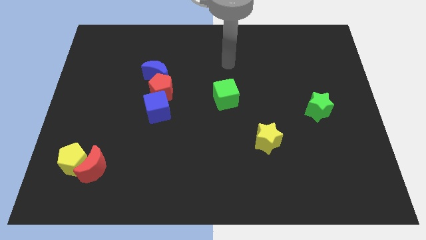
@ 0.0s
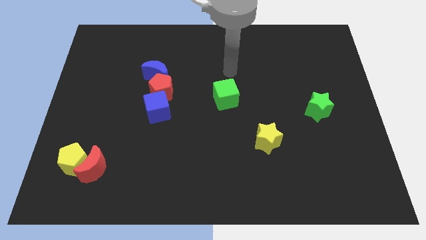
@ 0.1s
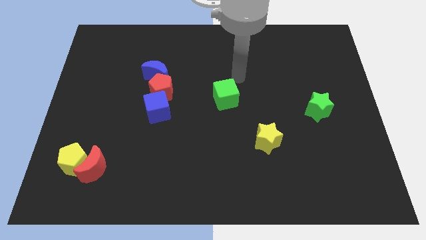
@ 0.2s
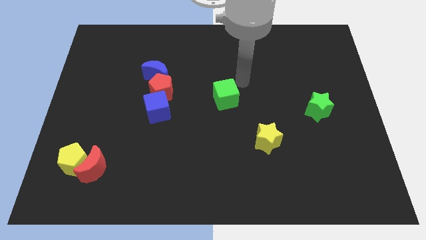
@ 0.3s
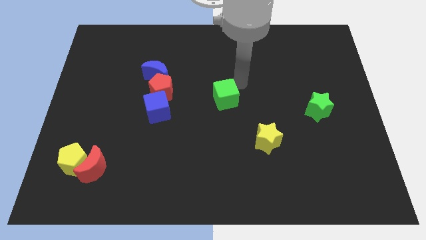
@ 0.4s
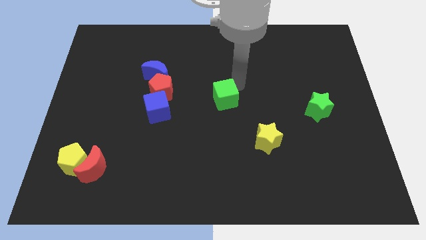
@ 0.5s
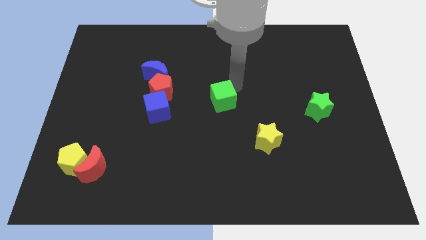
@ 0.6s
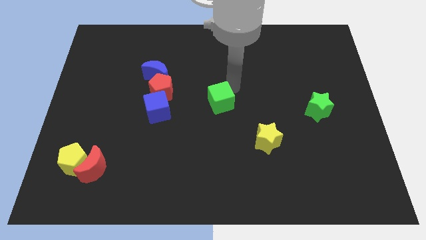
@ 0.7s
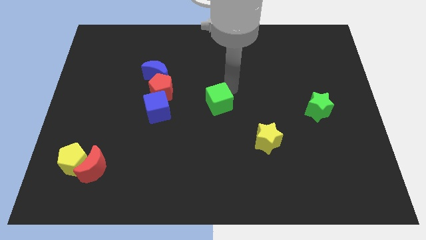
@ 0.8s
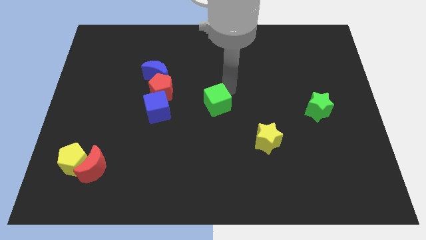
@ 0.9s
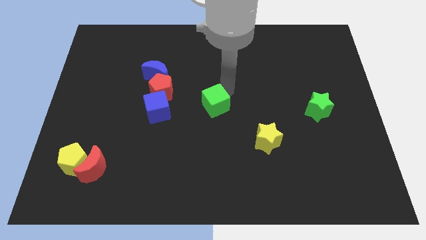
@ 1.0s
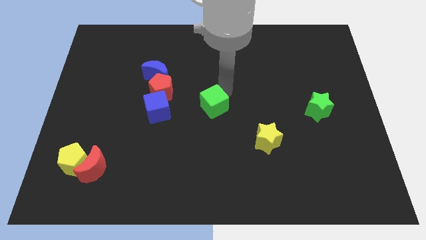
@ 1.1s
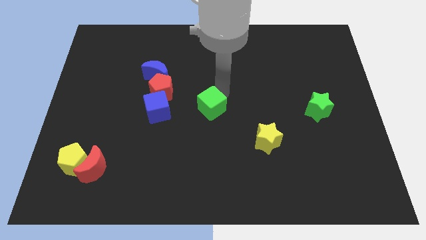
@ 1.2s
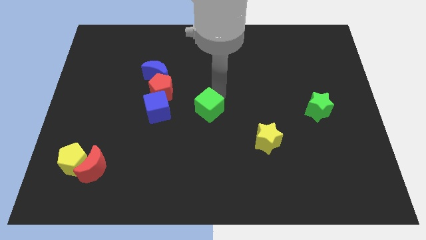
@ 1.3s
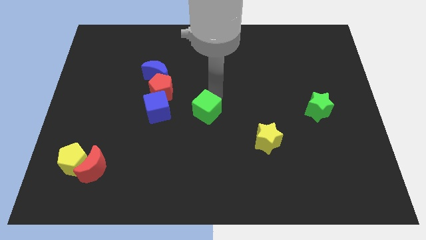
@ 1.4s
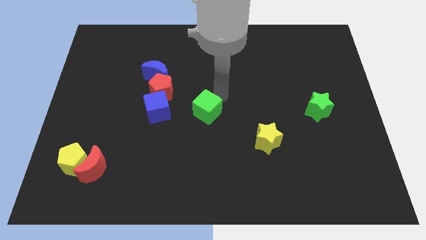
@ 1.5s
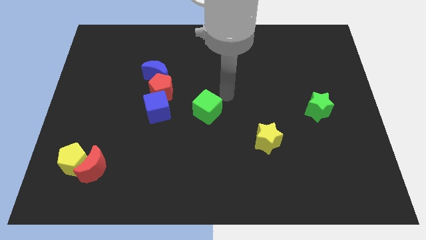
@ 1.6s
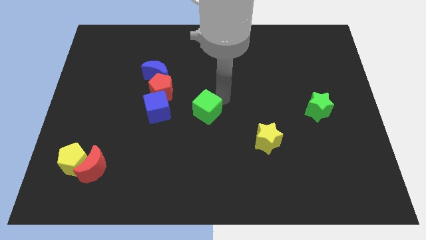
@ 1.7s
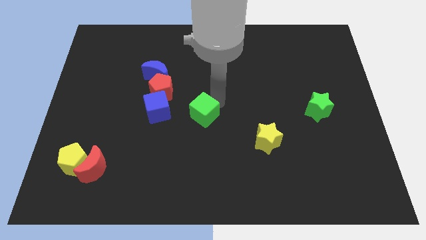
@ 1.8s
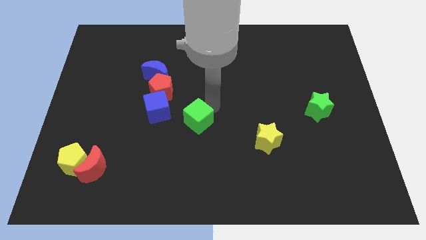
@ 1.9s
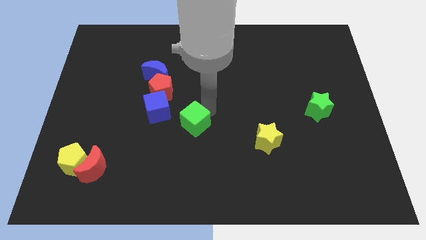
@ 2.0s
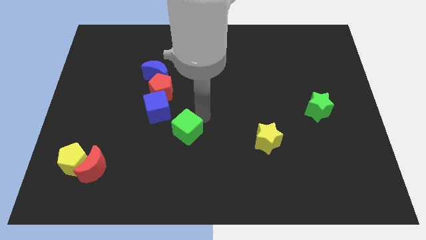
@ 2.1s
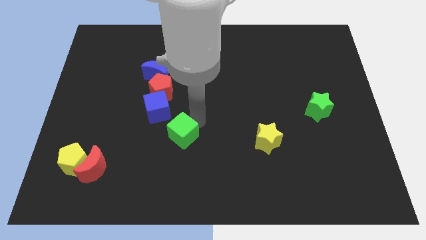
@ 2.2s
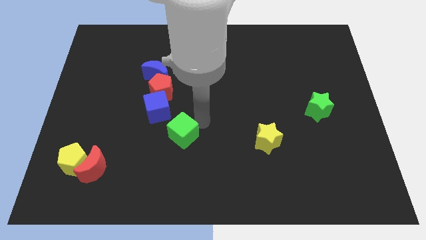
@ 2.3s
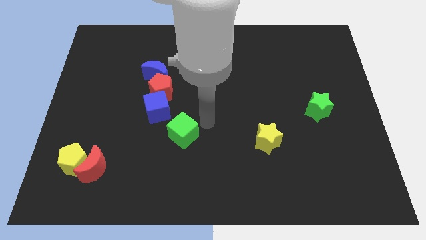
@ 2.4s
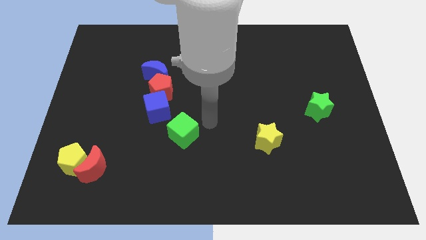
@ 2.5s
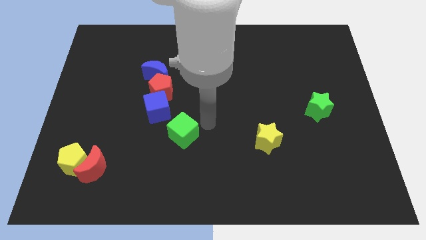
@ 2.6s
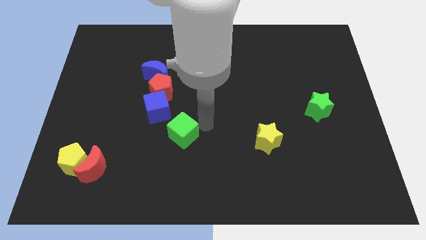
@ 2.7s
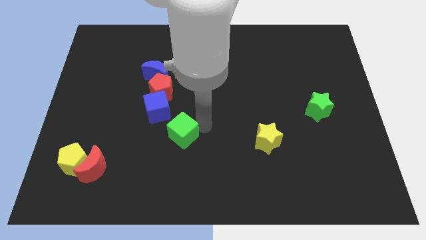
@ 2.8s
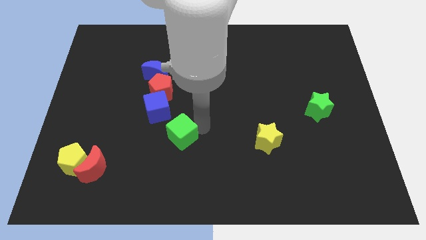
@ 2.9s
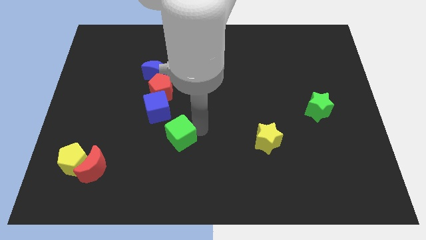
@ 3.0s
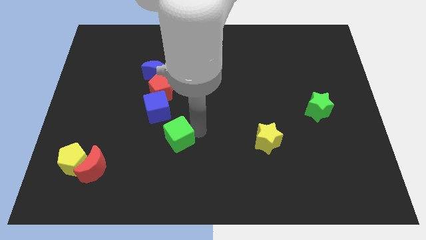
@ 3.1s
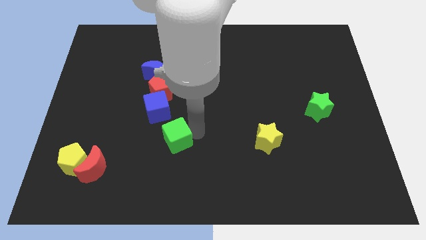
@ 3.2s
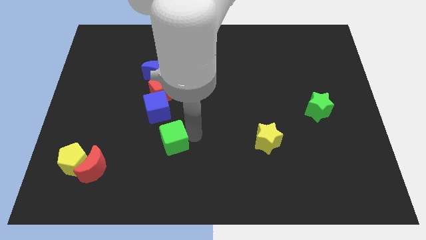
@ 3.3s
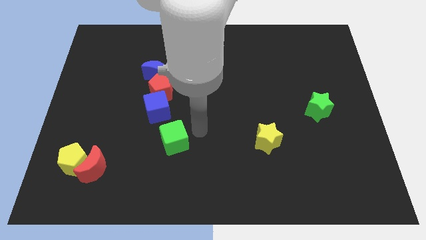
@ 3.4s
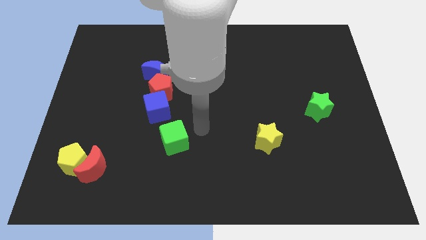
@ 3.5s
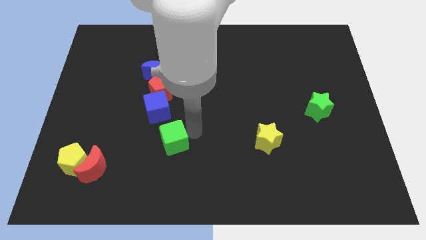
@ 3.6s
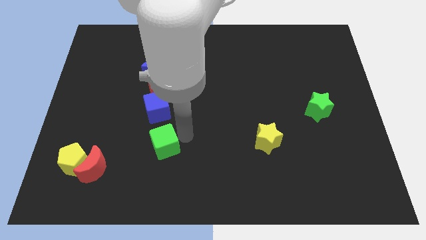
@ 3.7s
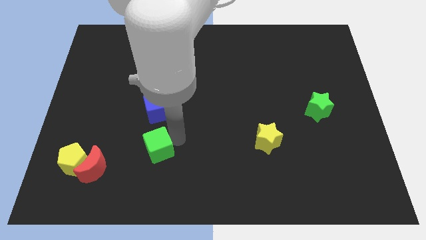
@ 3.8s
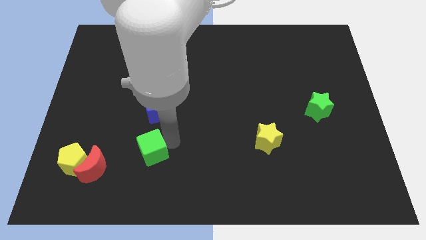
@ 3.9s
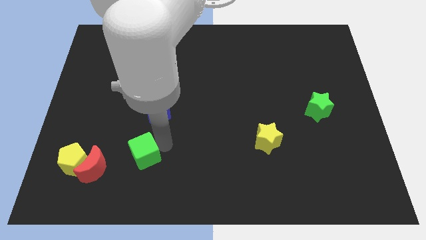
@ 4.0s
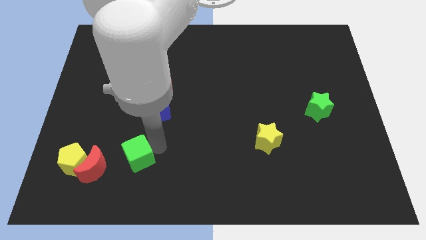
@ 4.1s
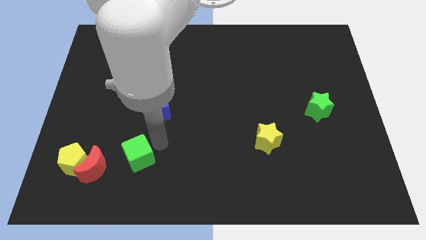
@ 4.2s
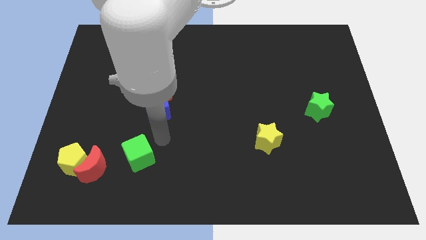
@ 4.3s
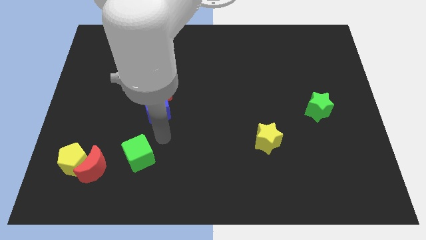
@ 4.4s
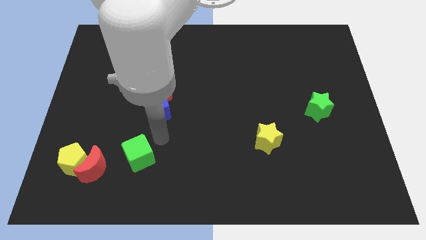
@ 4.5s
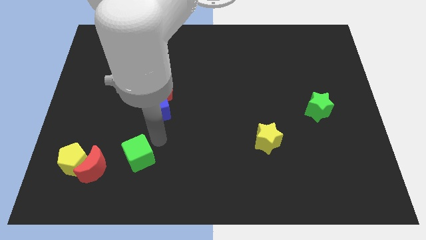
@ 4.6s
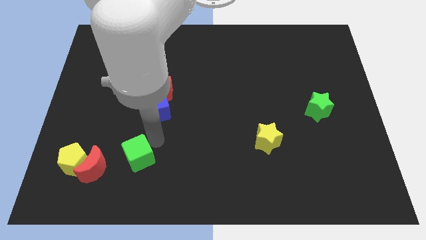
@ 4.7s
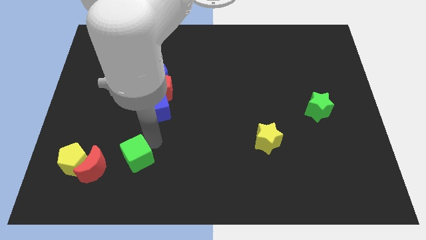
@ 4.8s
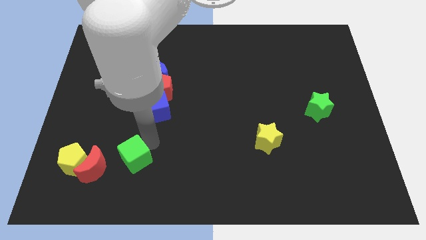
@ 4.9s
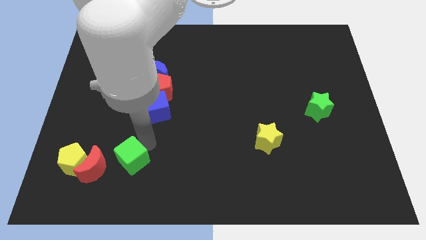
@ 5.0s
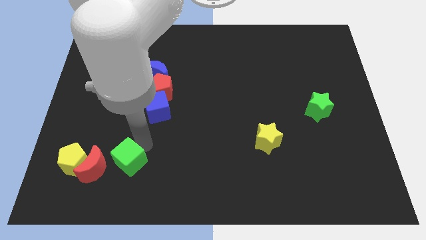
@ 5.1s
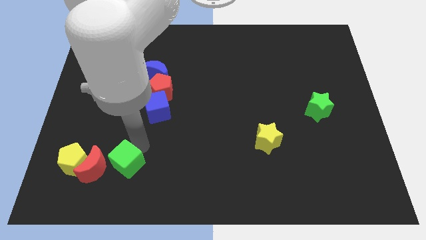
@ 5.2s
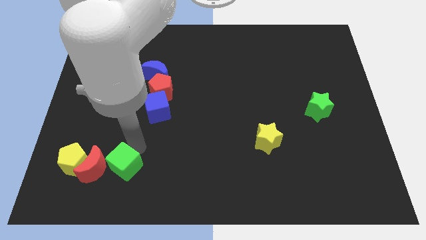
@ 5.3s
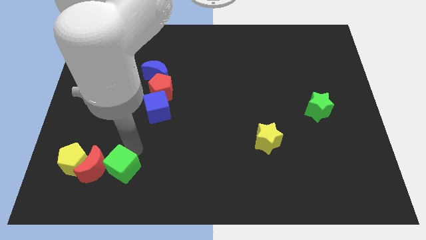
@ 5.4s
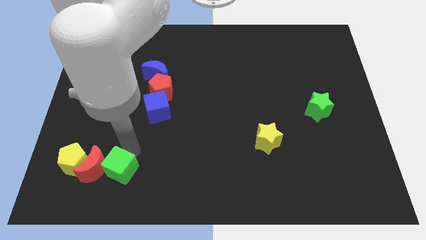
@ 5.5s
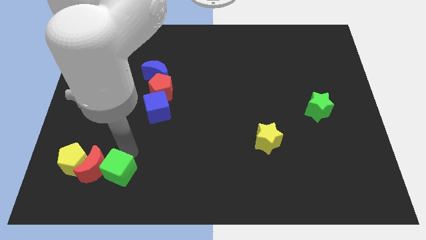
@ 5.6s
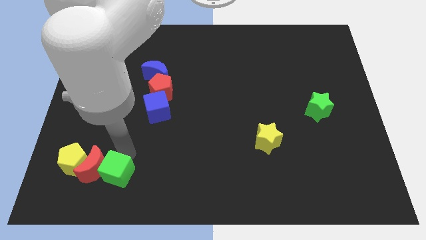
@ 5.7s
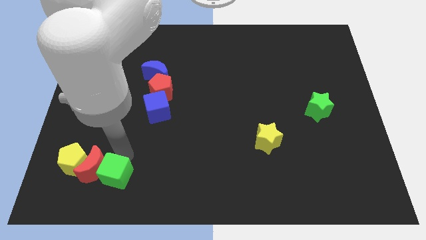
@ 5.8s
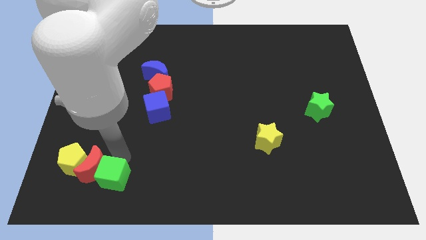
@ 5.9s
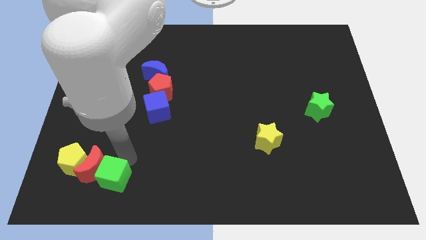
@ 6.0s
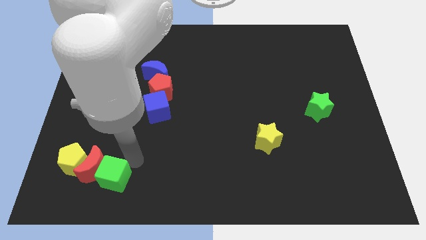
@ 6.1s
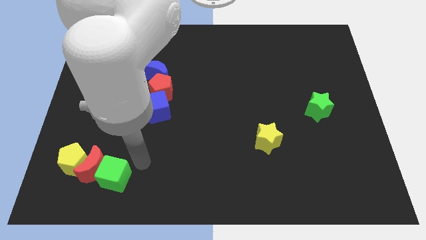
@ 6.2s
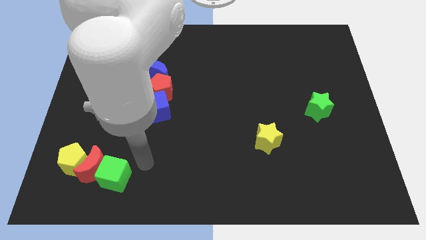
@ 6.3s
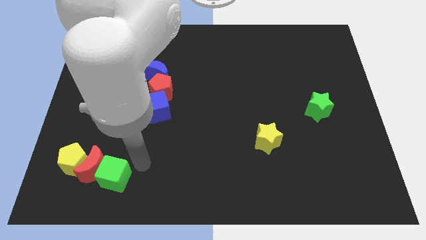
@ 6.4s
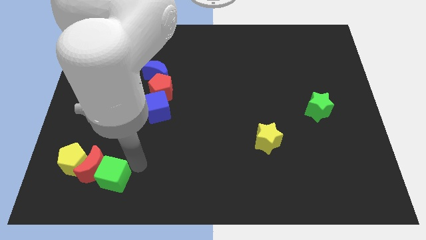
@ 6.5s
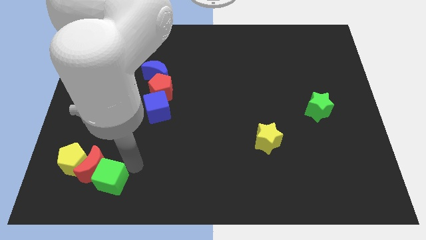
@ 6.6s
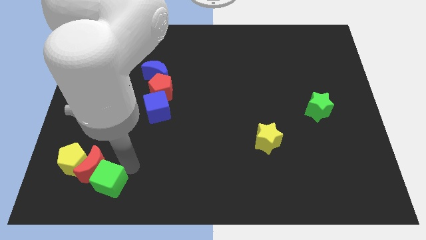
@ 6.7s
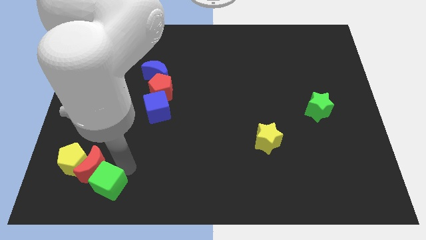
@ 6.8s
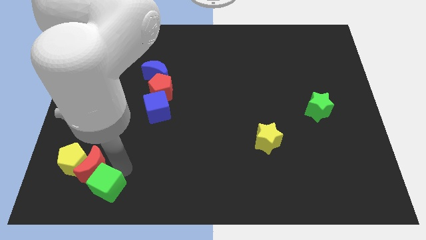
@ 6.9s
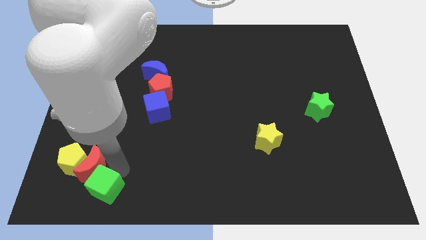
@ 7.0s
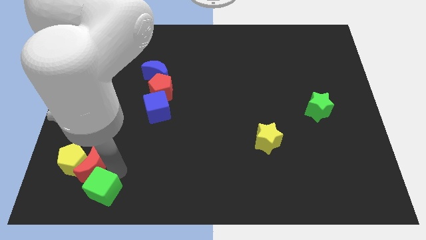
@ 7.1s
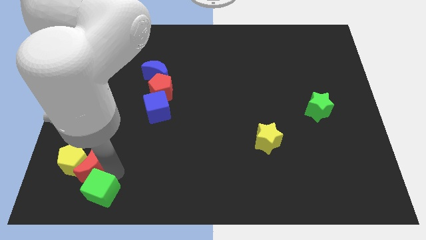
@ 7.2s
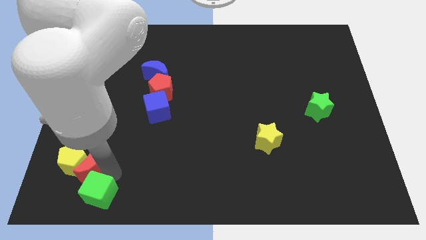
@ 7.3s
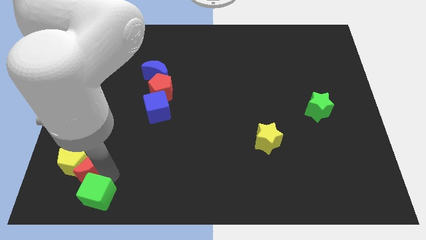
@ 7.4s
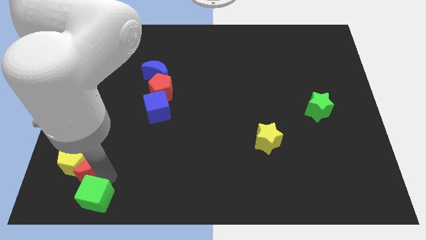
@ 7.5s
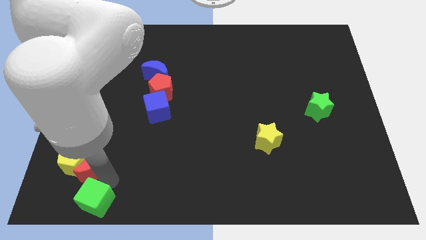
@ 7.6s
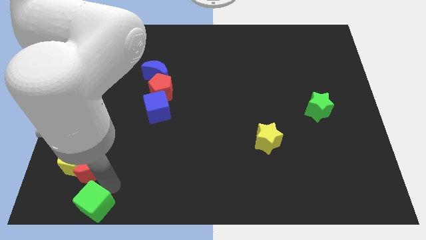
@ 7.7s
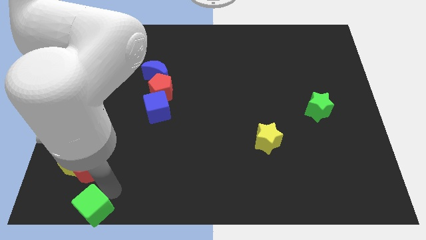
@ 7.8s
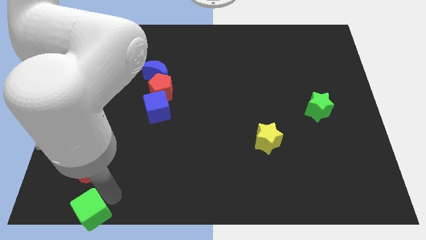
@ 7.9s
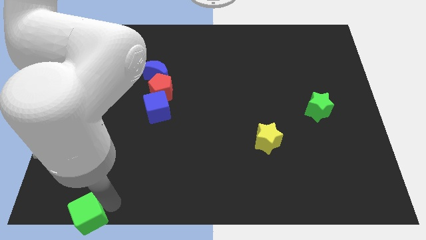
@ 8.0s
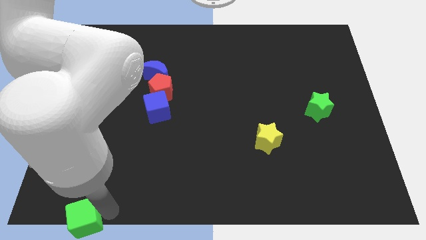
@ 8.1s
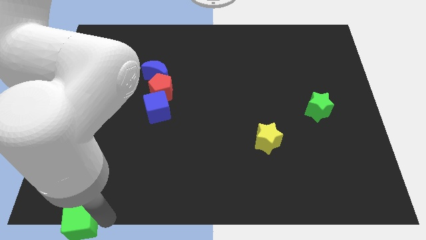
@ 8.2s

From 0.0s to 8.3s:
push the green cube to the lower left corner
